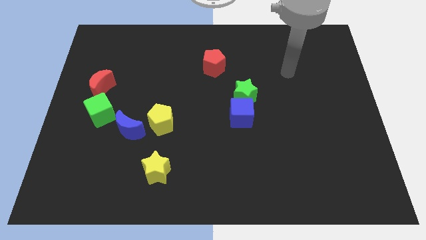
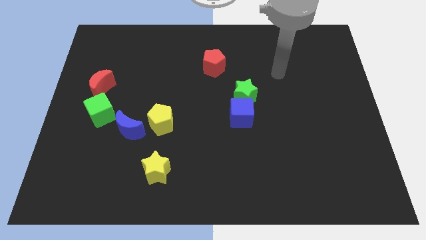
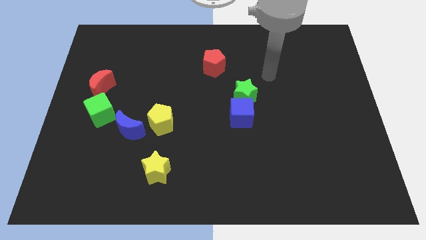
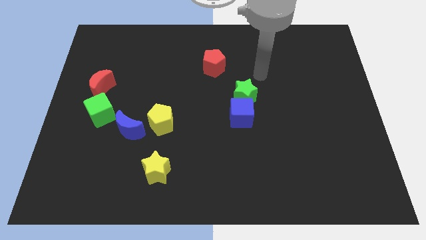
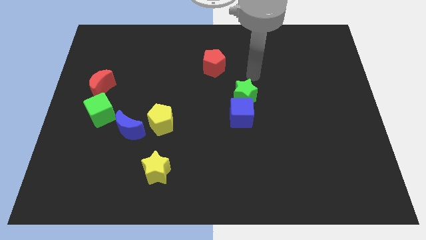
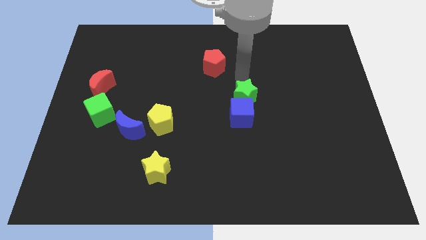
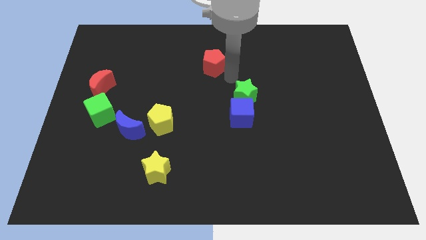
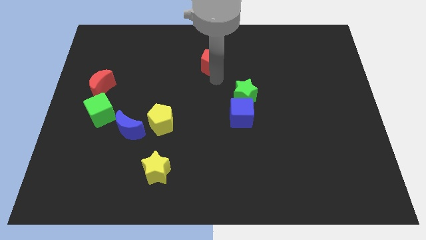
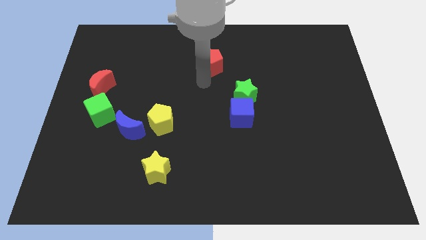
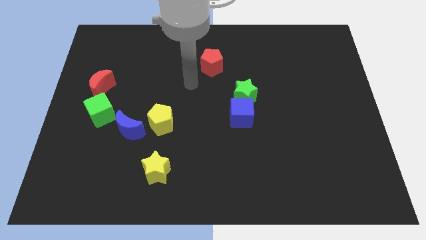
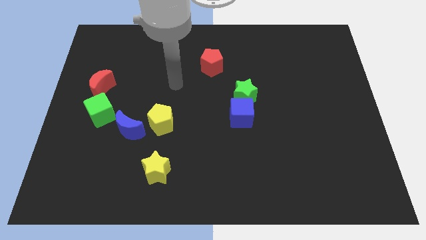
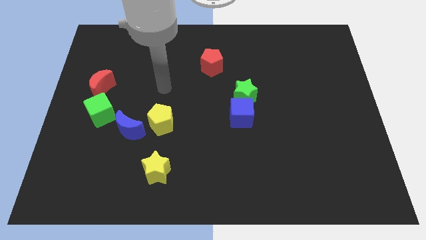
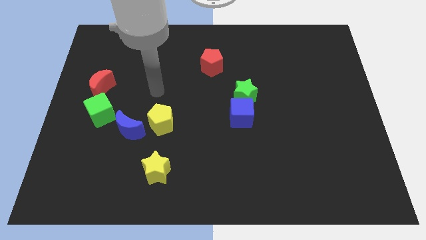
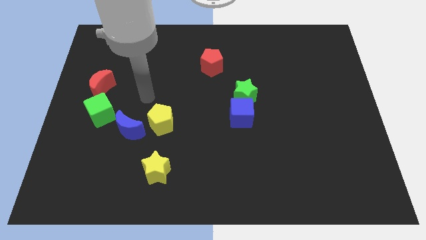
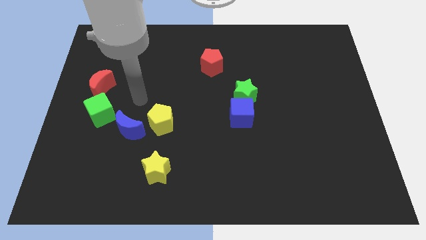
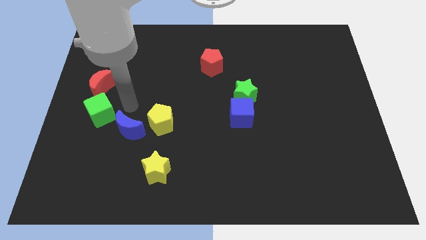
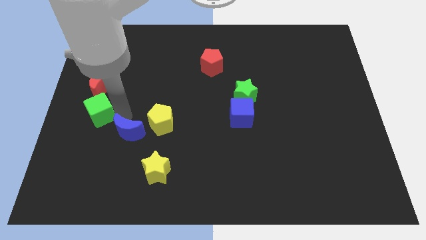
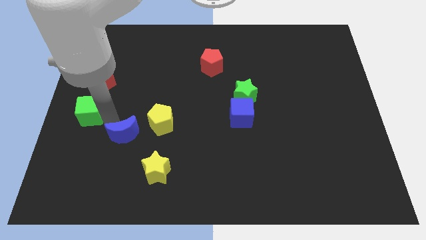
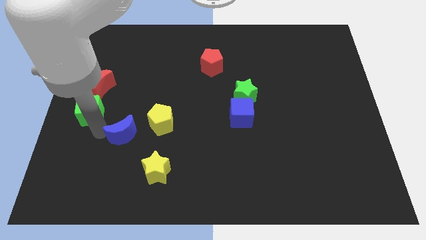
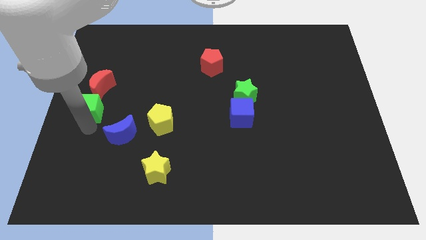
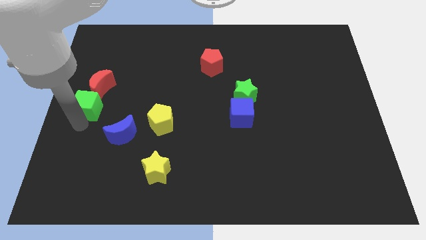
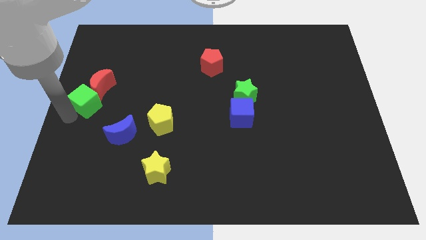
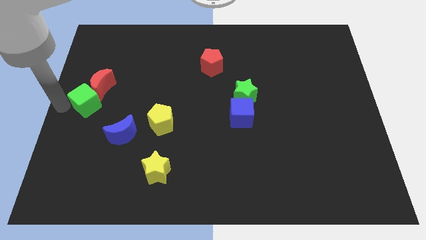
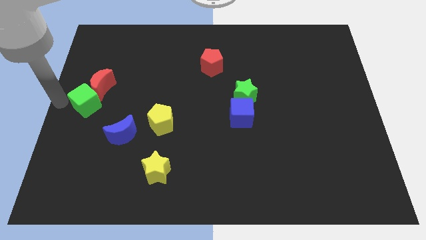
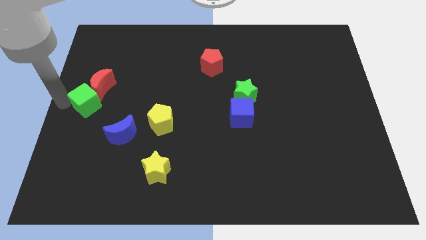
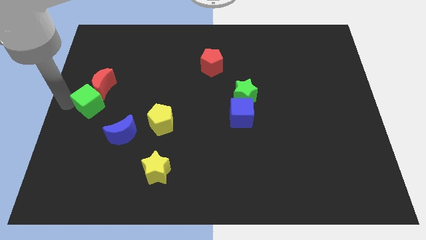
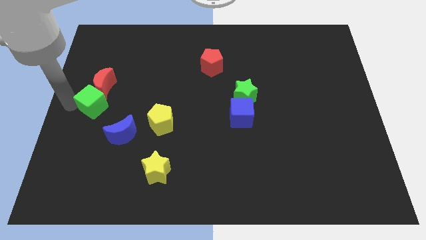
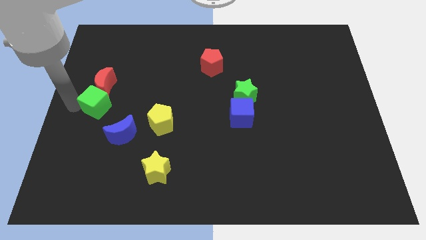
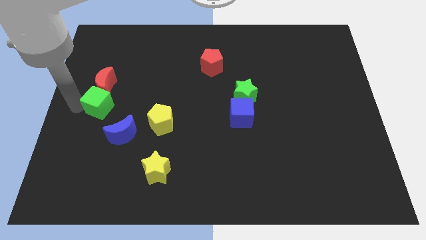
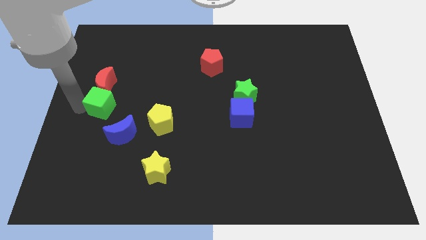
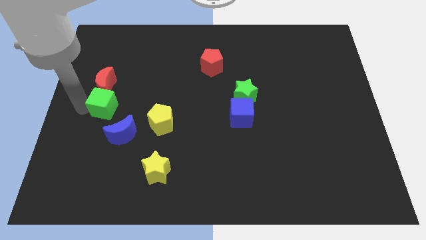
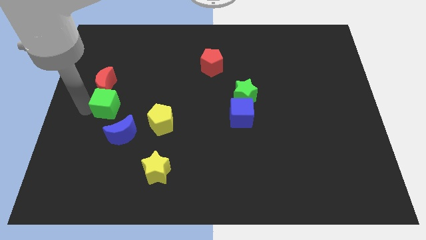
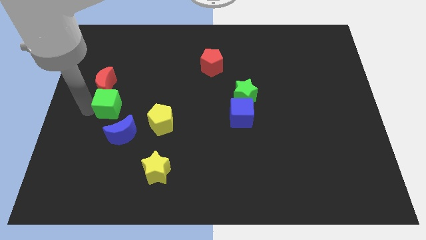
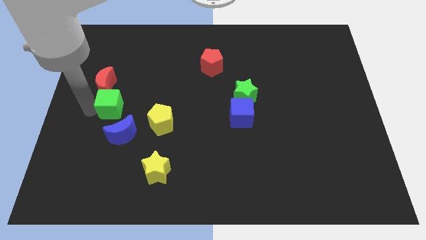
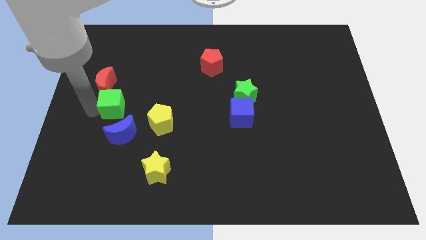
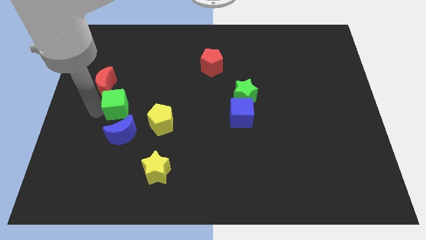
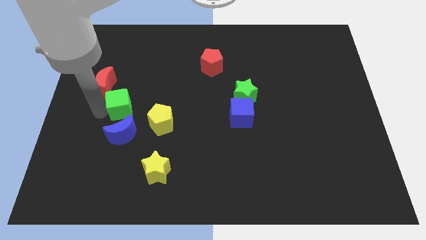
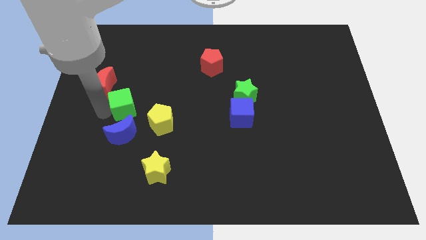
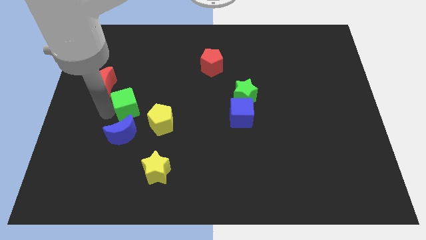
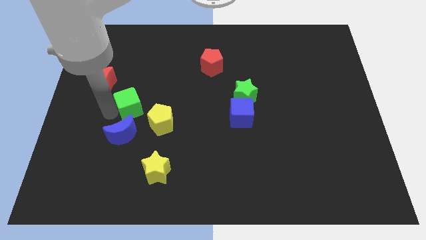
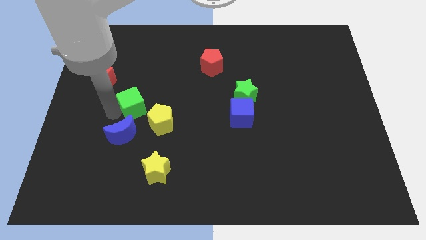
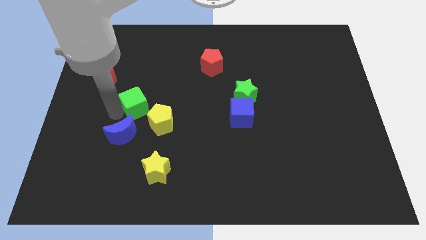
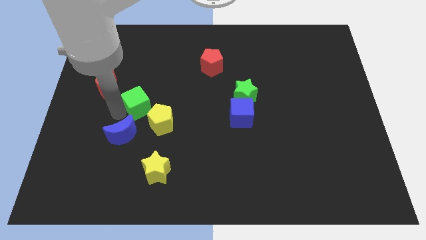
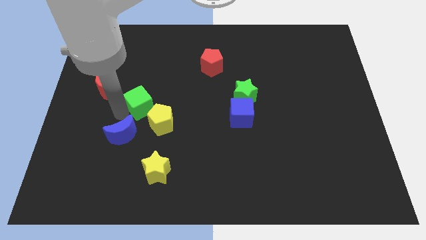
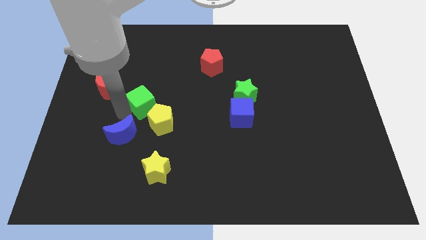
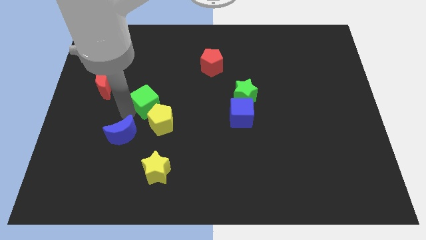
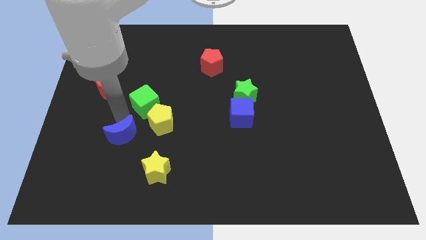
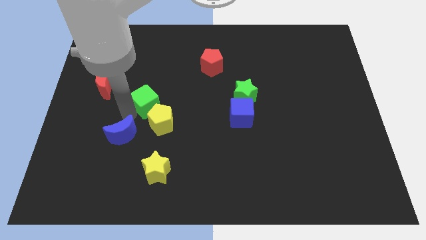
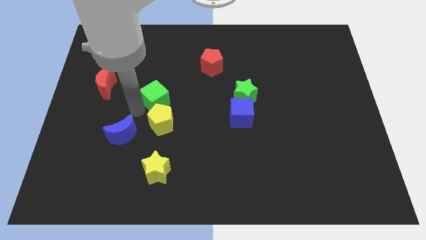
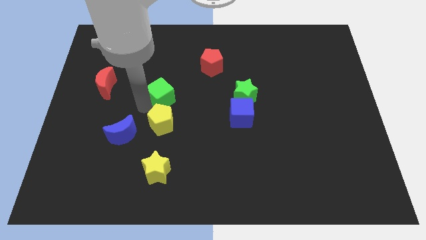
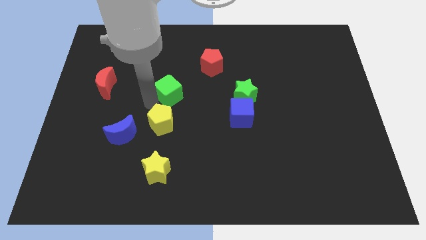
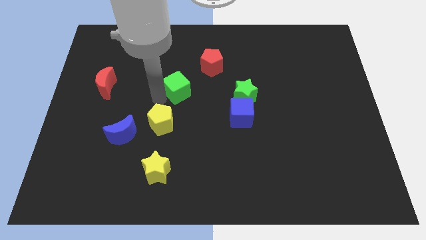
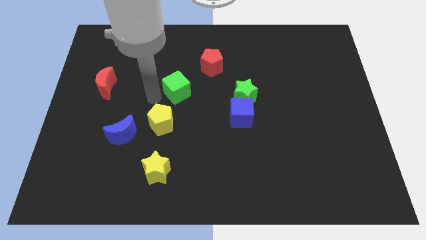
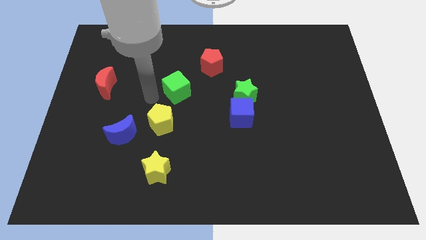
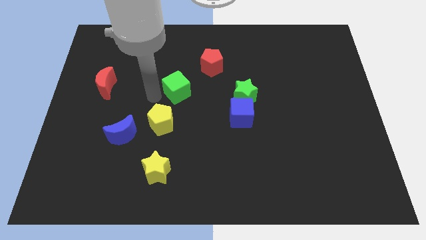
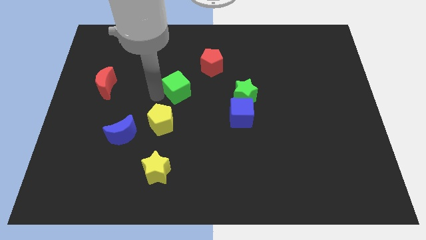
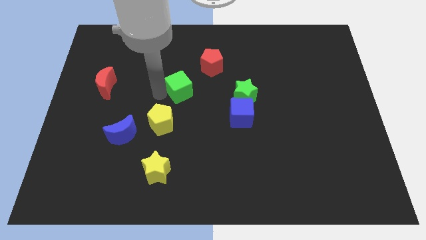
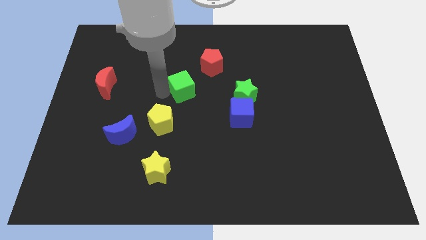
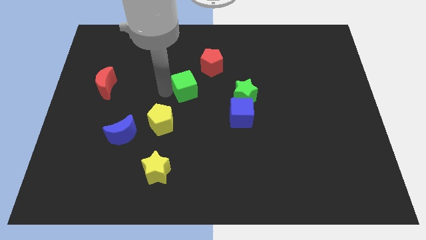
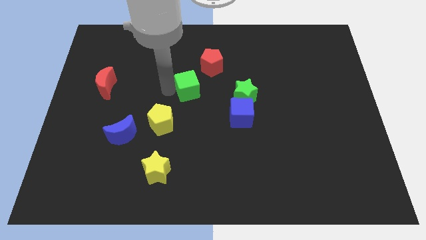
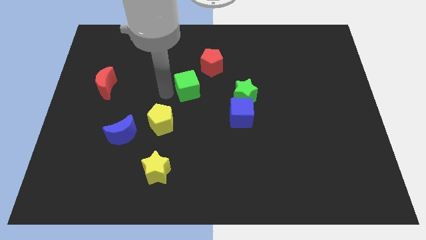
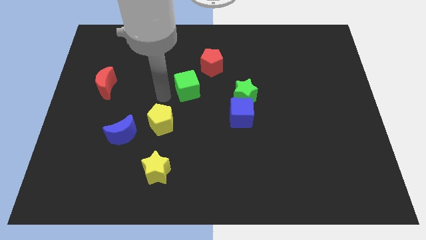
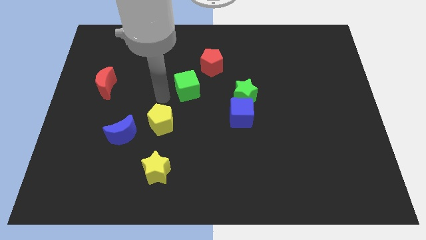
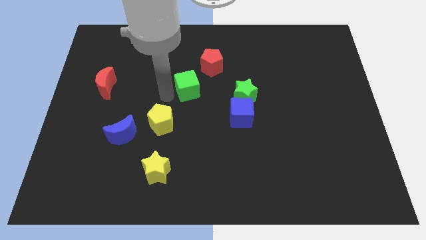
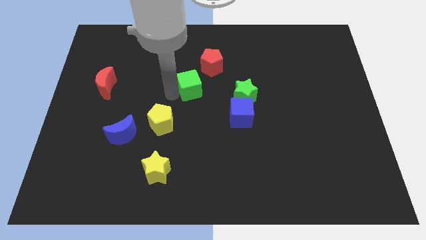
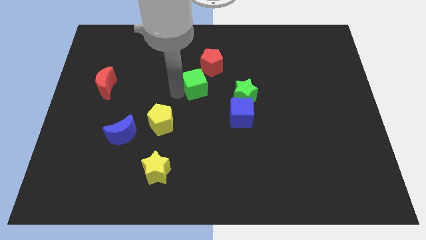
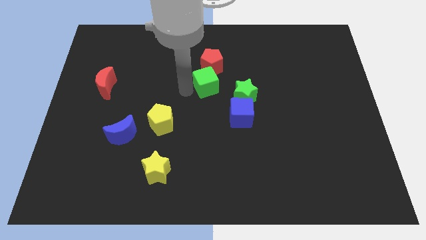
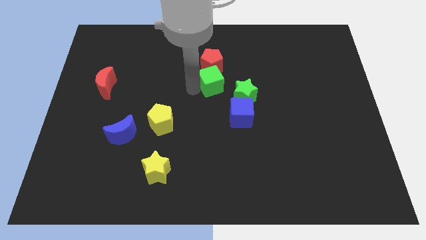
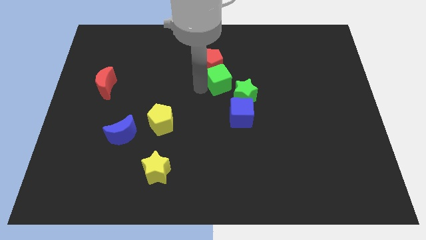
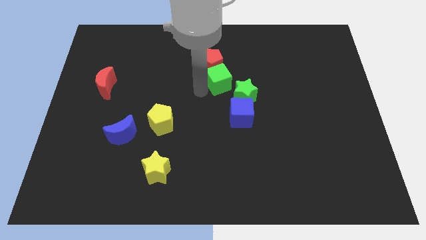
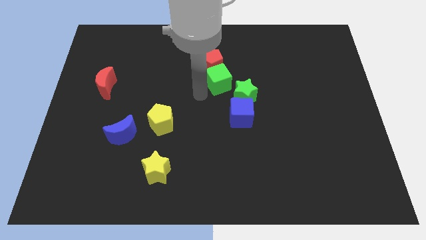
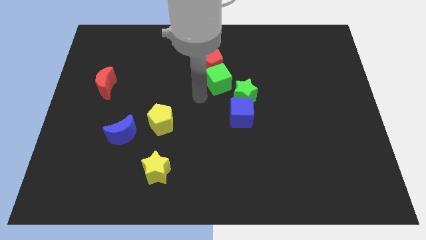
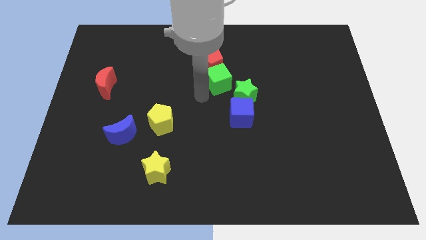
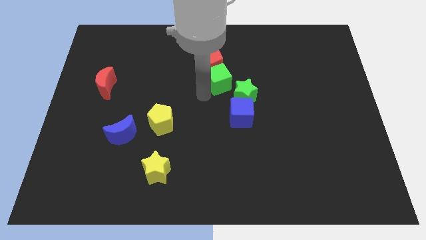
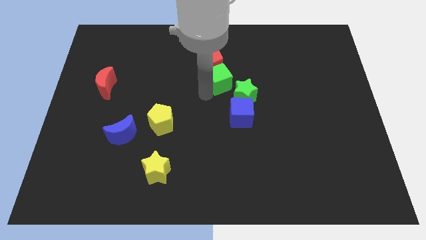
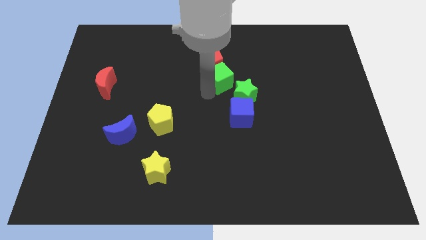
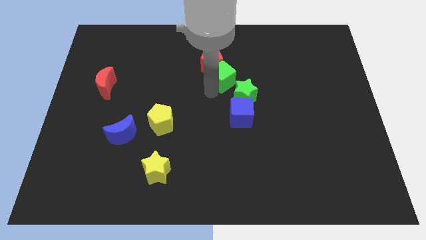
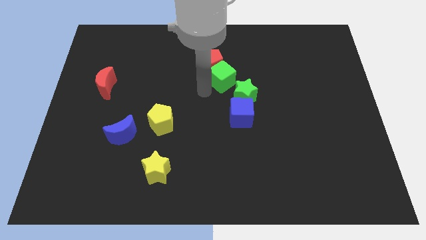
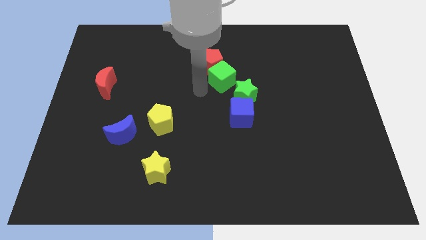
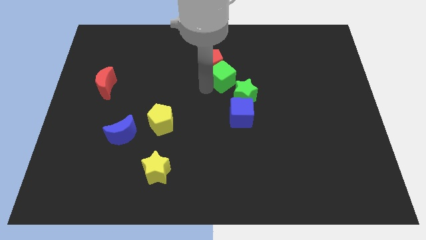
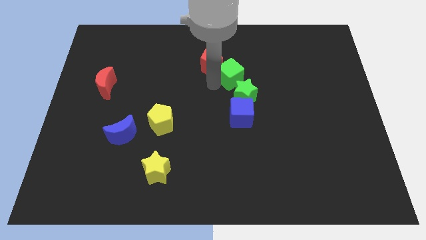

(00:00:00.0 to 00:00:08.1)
move the green cube to the right of the red pentagon
